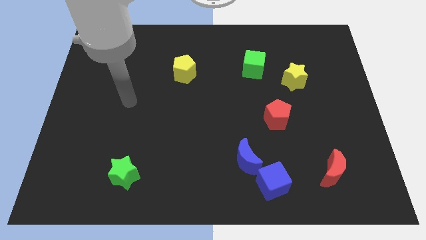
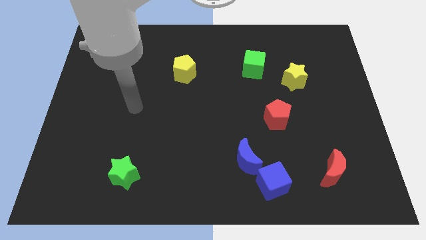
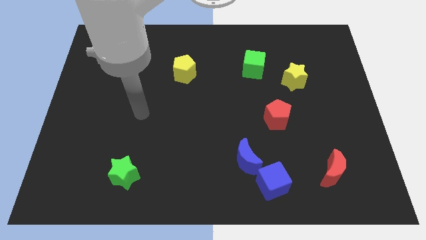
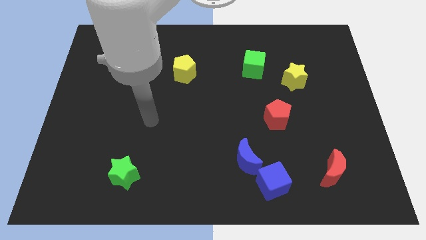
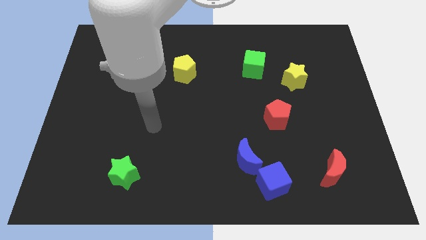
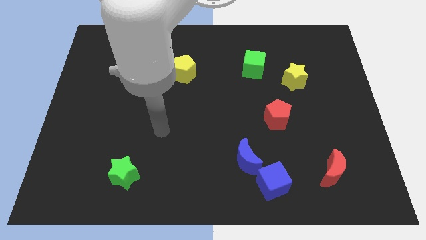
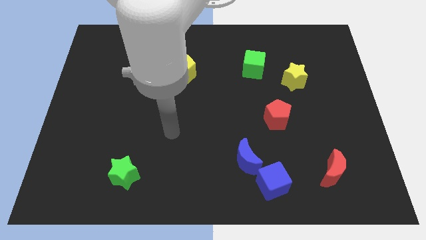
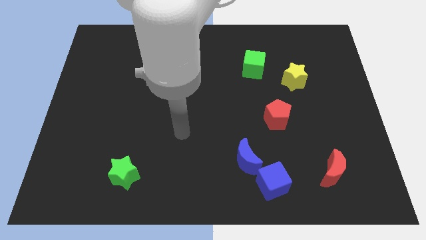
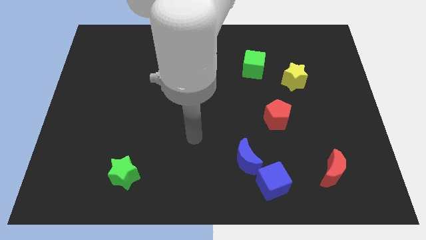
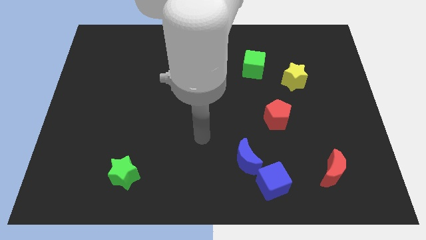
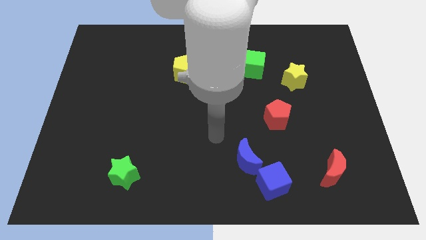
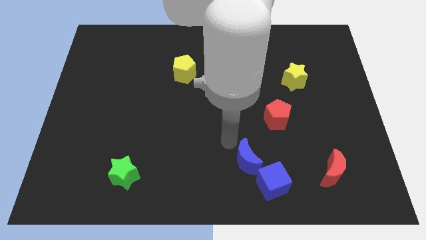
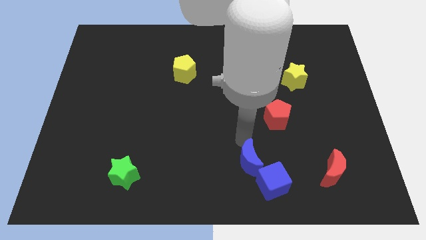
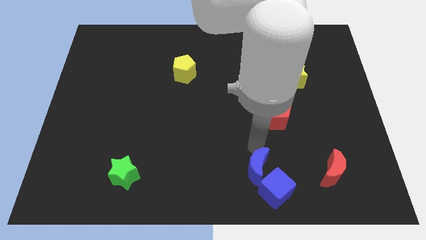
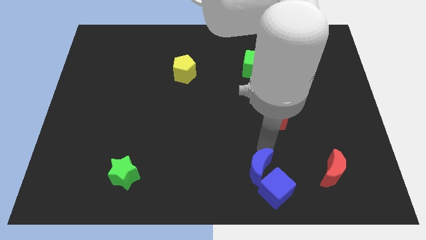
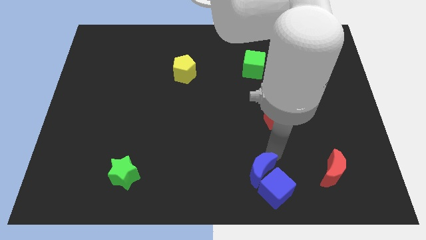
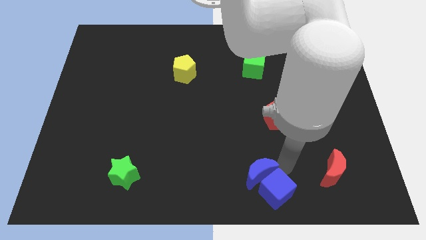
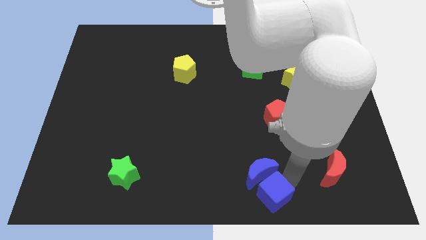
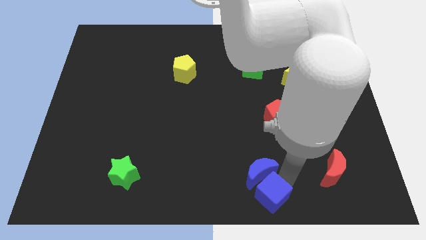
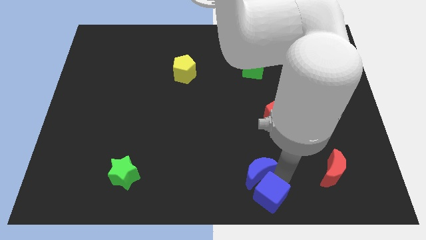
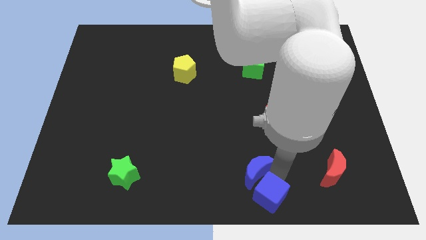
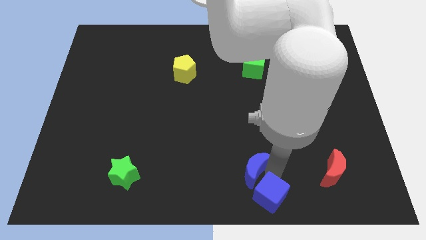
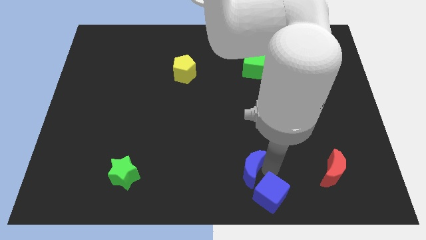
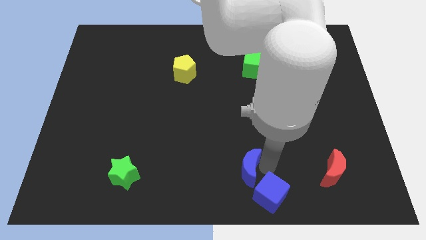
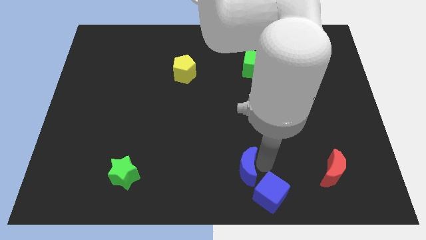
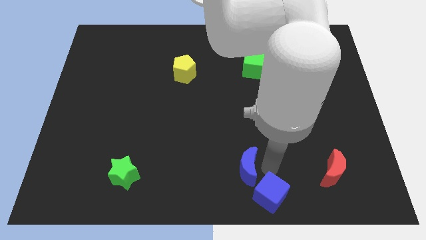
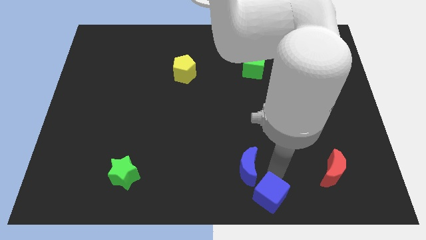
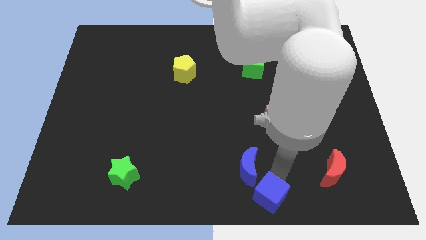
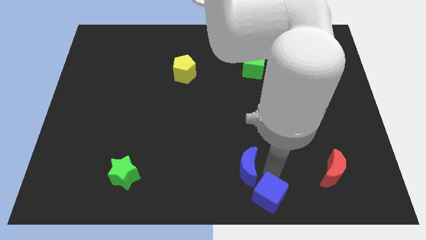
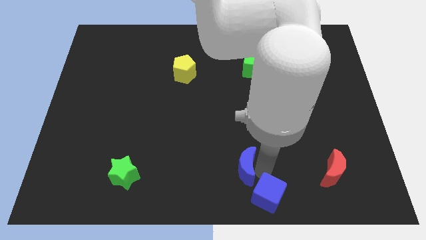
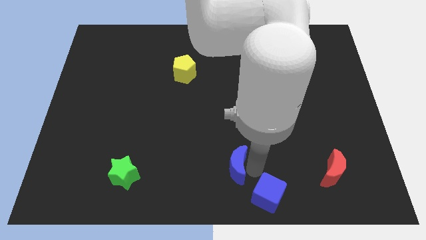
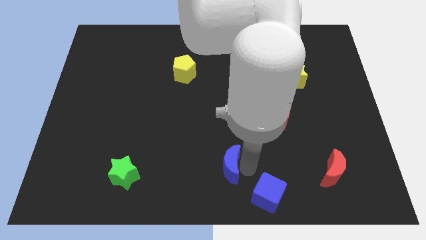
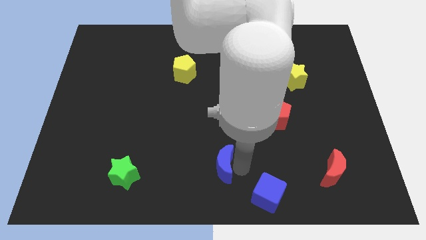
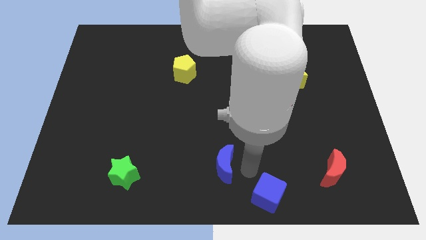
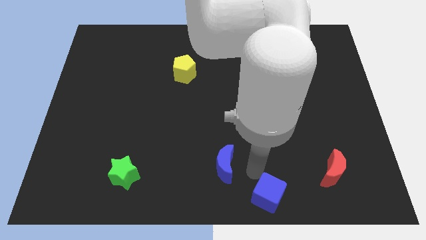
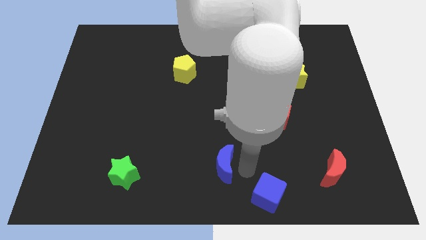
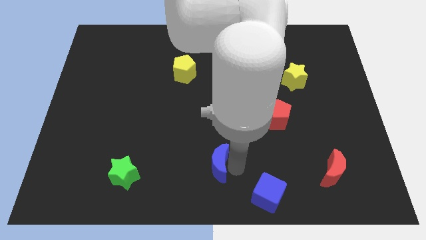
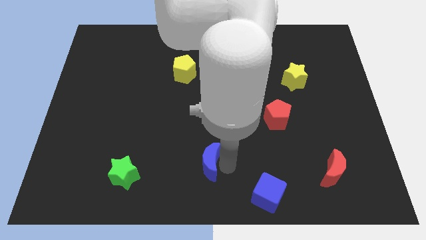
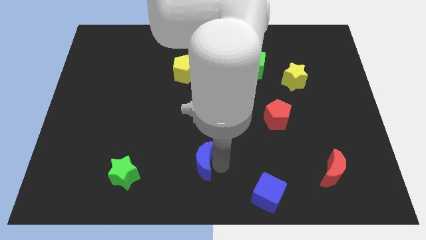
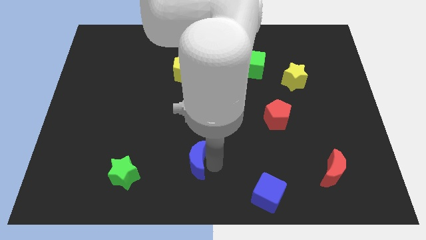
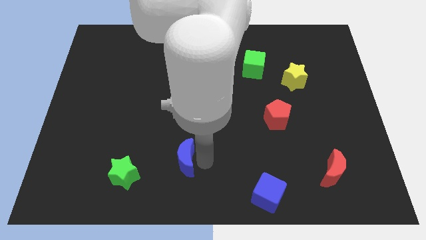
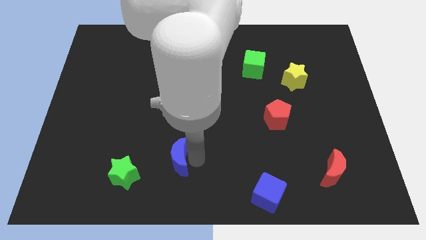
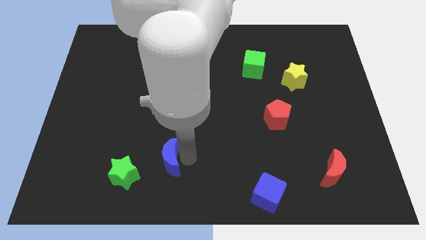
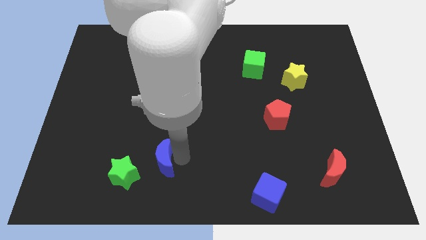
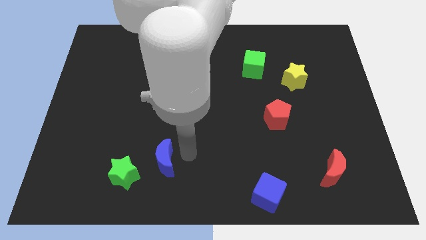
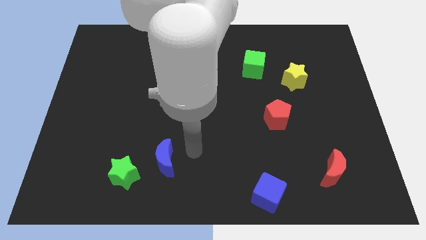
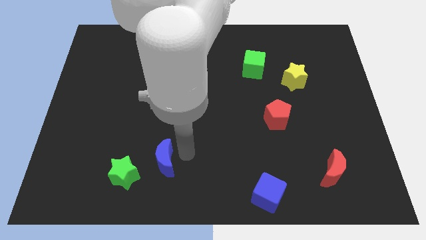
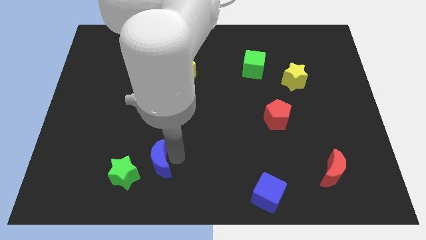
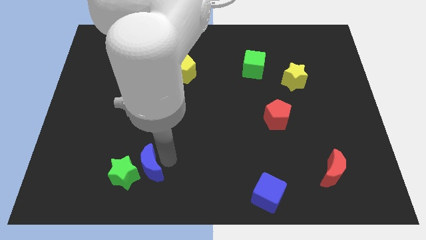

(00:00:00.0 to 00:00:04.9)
slide the blue moon next to the green star

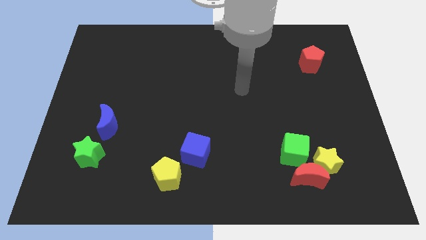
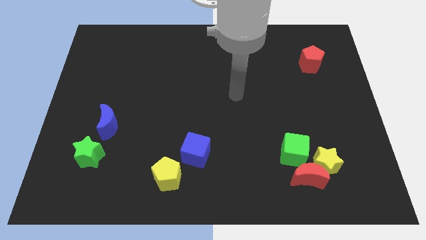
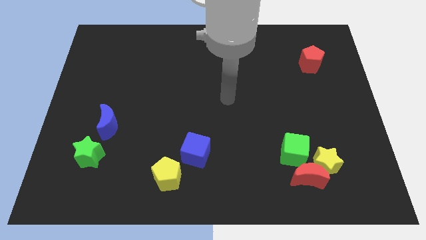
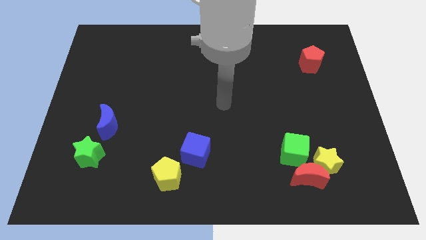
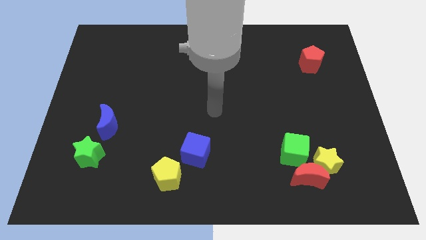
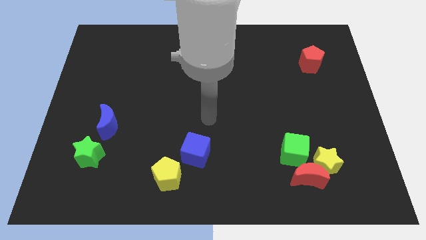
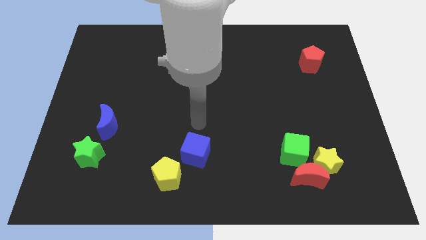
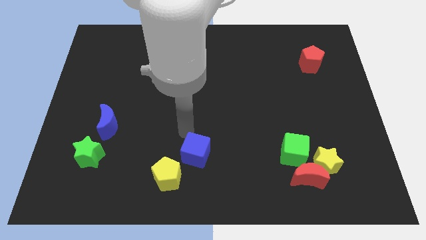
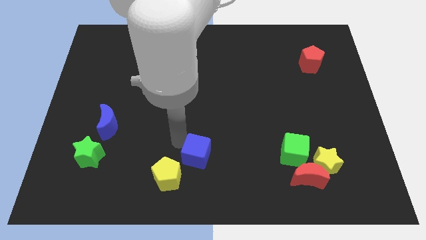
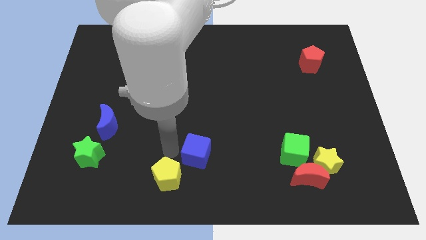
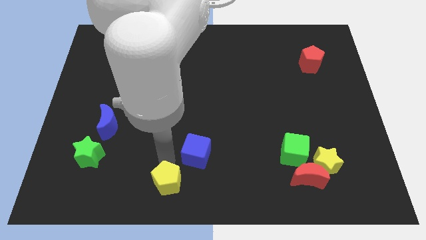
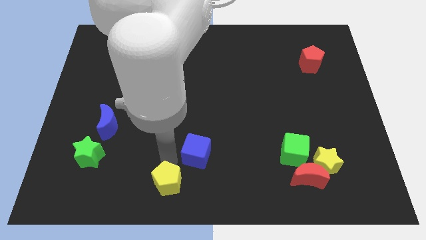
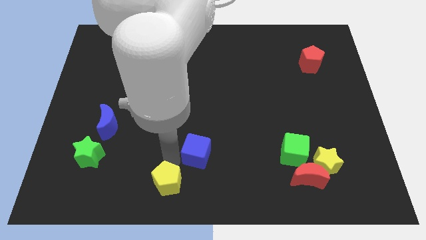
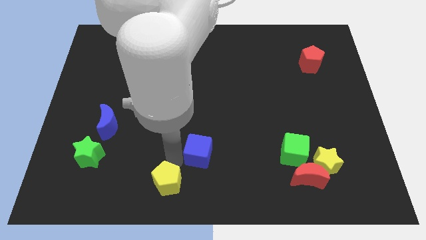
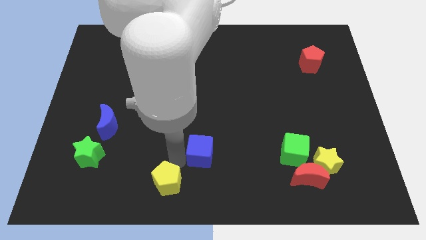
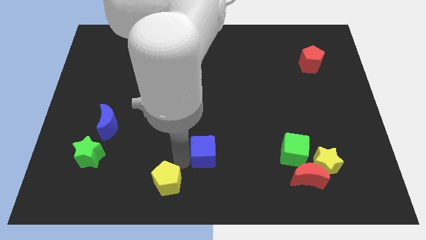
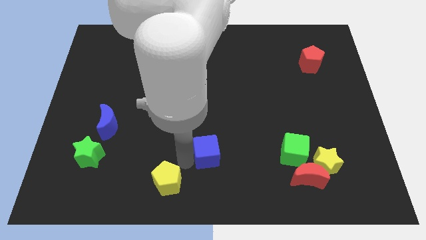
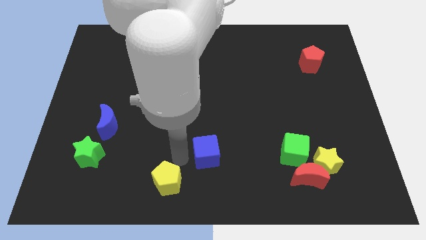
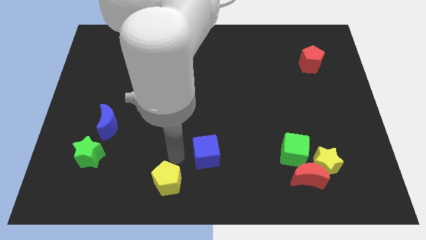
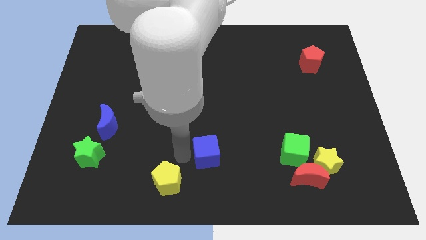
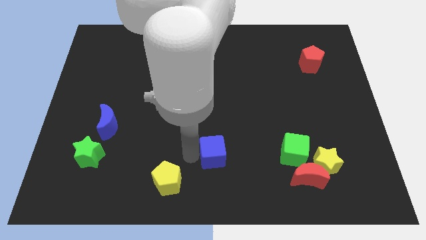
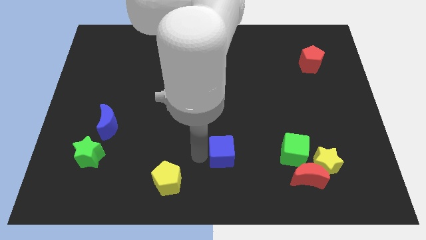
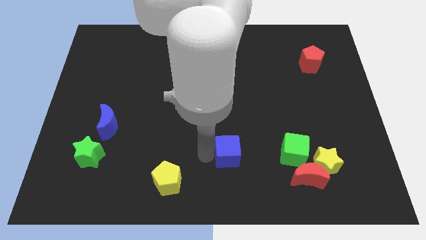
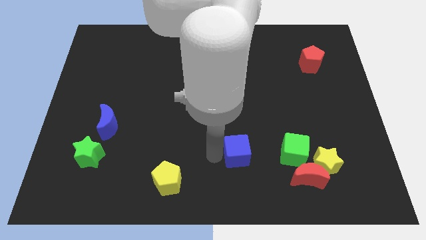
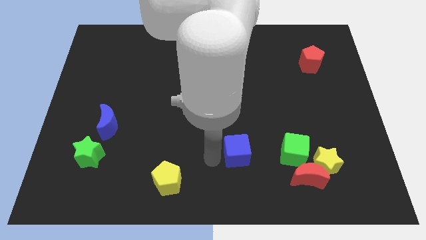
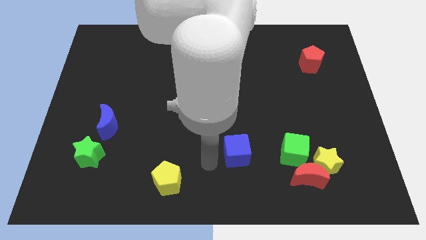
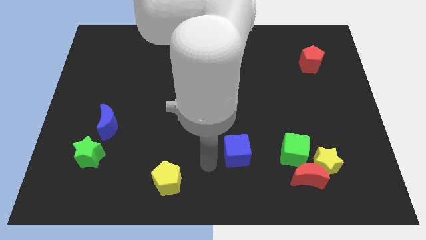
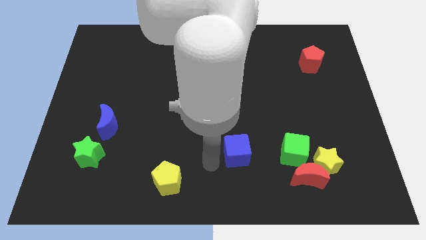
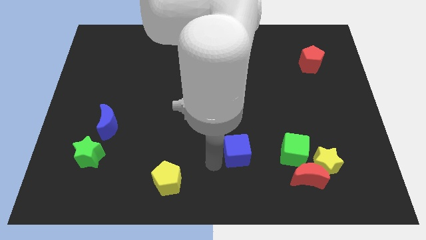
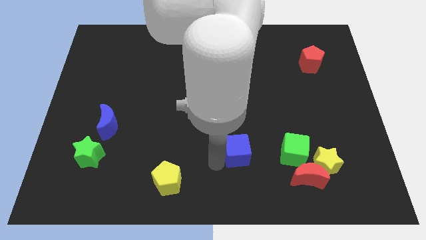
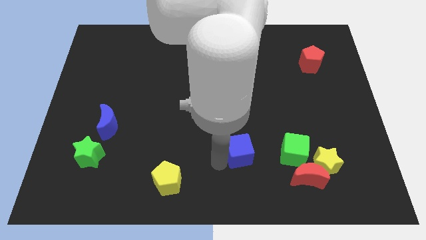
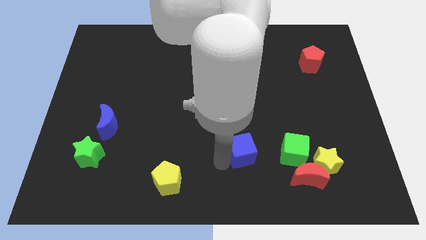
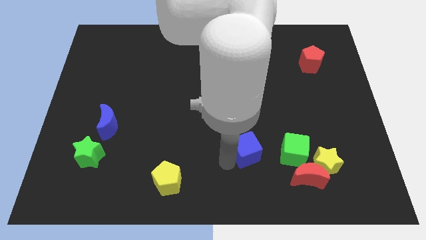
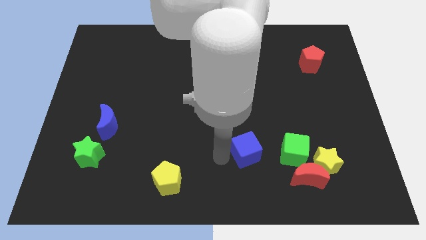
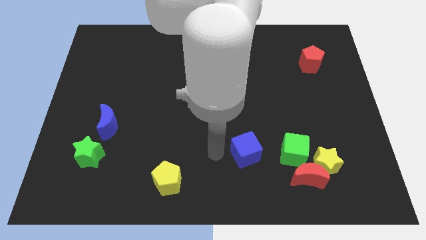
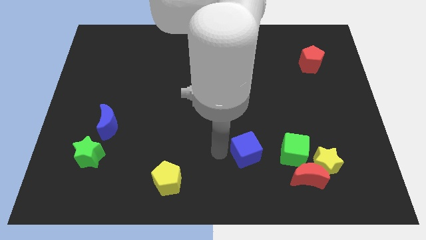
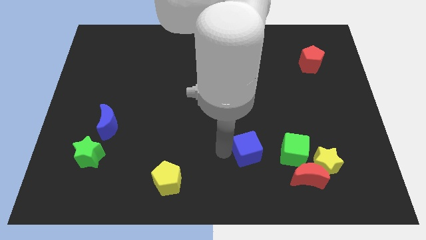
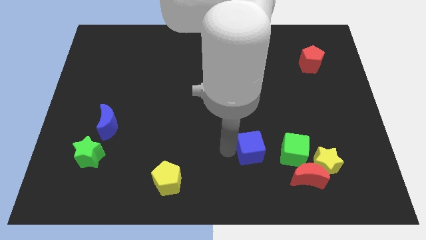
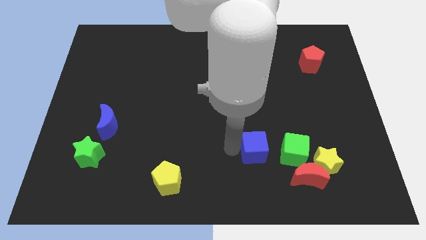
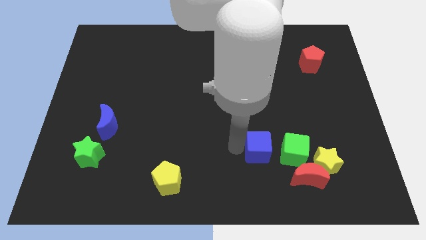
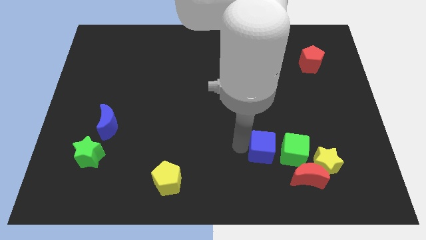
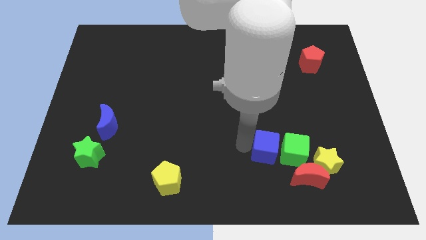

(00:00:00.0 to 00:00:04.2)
put the blue cube next to the green cube
